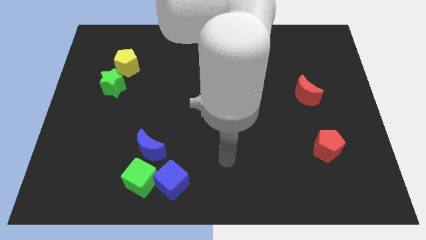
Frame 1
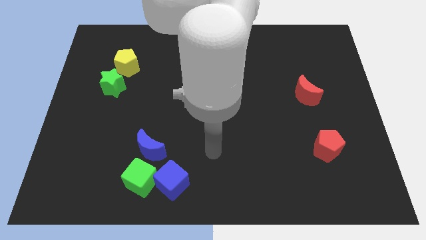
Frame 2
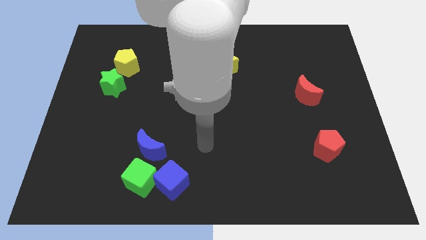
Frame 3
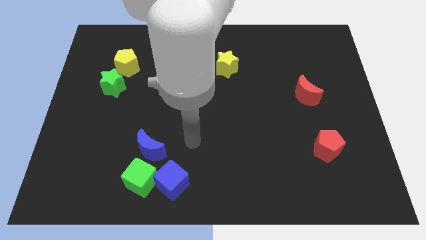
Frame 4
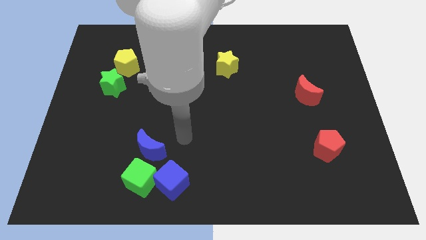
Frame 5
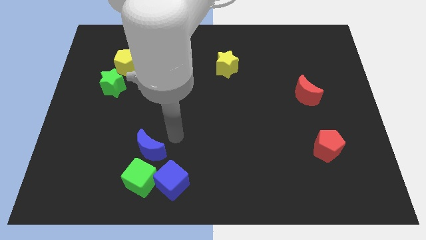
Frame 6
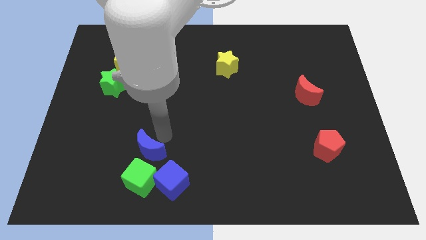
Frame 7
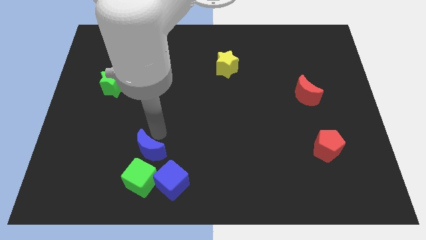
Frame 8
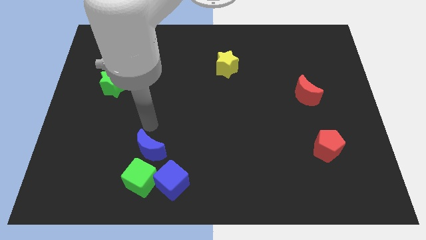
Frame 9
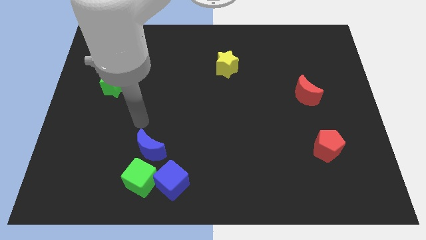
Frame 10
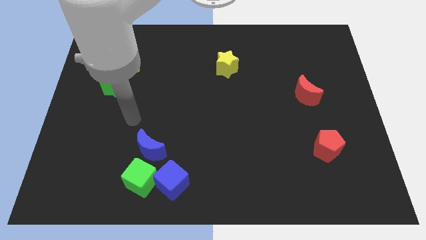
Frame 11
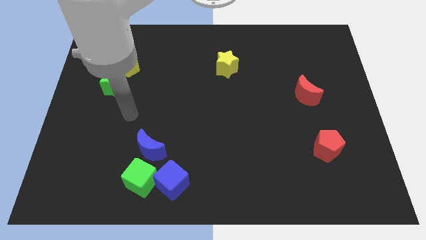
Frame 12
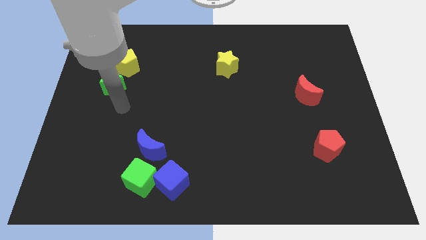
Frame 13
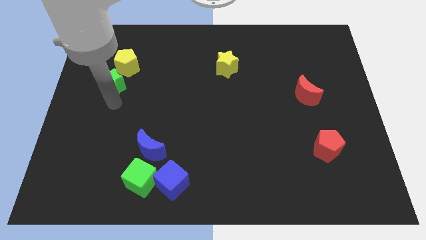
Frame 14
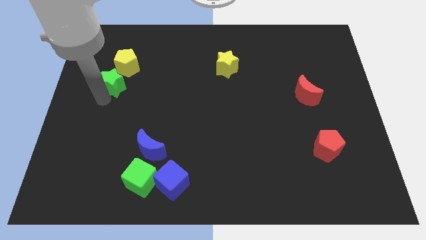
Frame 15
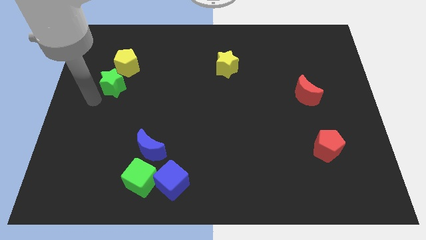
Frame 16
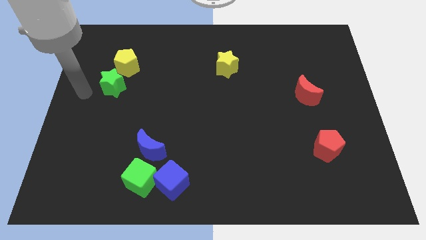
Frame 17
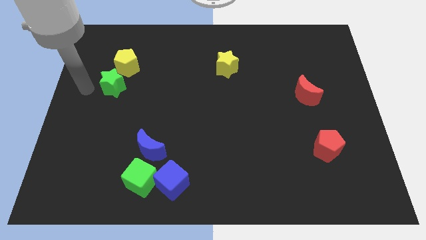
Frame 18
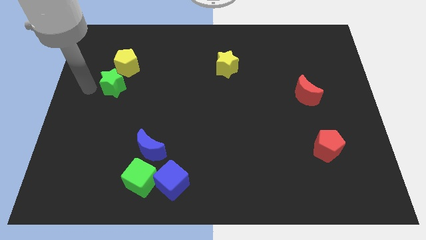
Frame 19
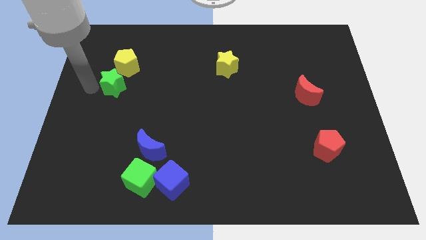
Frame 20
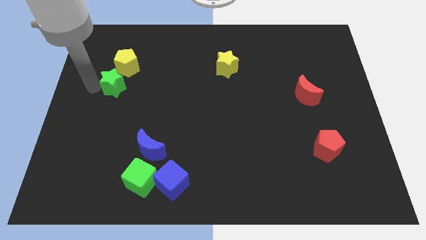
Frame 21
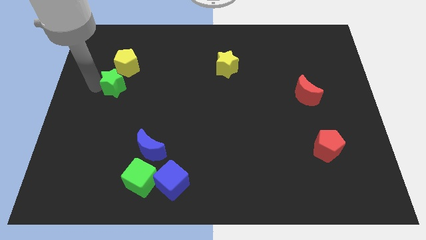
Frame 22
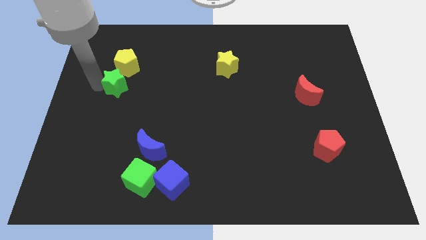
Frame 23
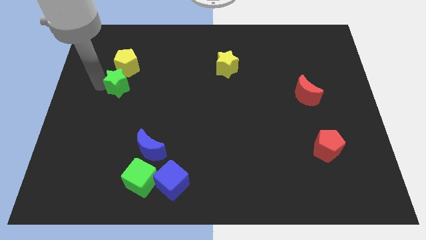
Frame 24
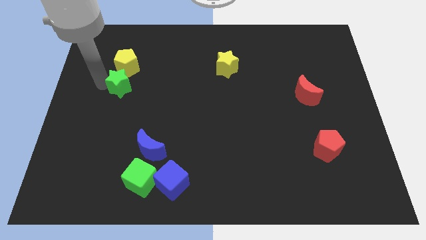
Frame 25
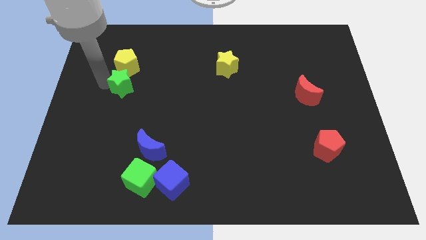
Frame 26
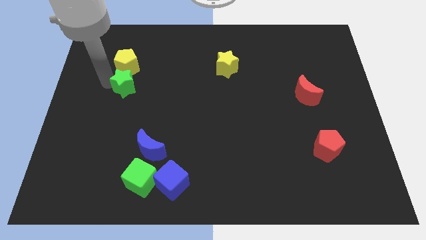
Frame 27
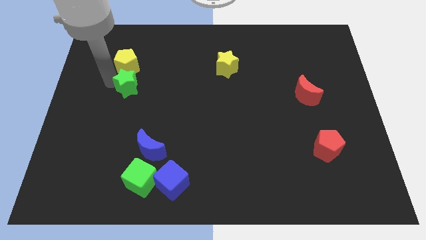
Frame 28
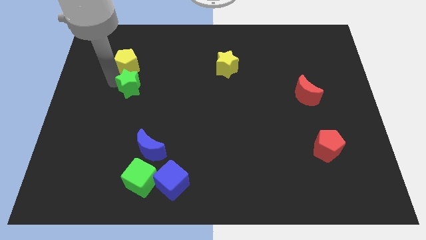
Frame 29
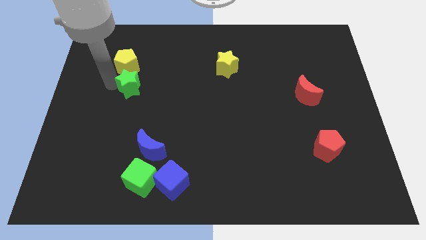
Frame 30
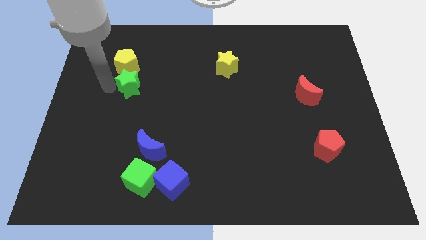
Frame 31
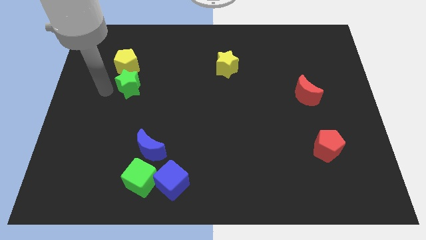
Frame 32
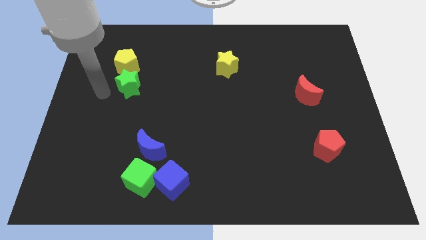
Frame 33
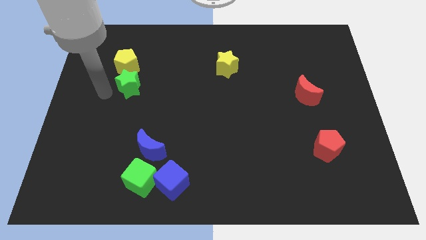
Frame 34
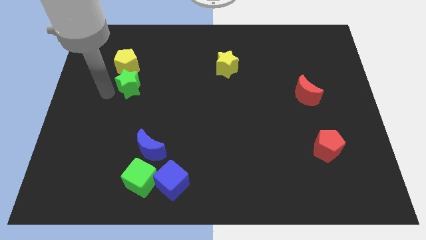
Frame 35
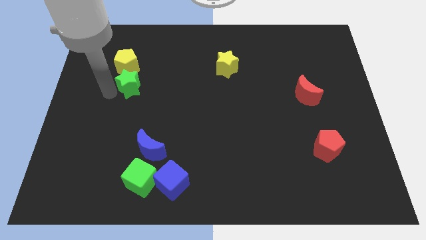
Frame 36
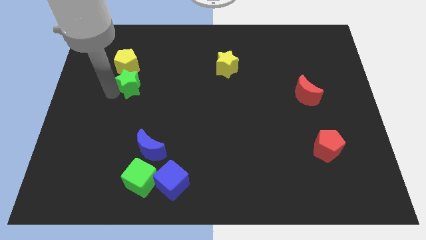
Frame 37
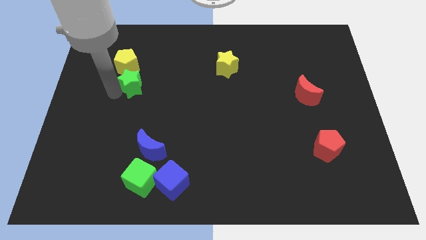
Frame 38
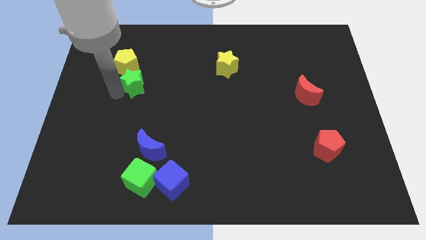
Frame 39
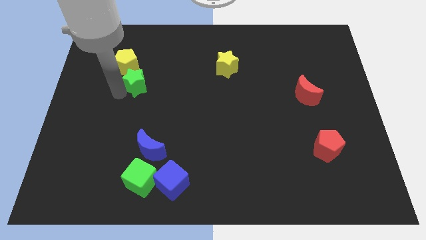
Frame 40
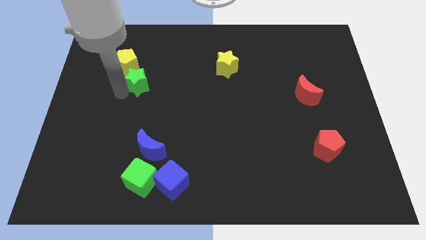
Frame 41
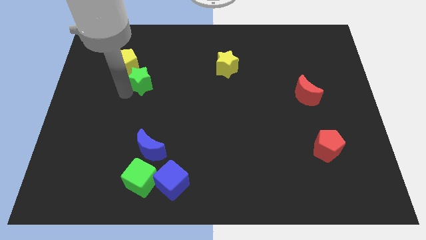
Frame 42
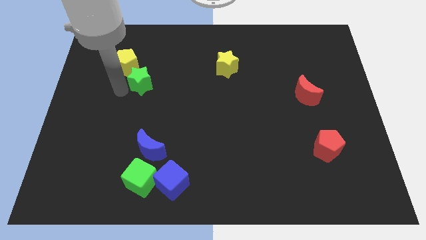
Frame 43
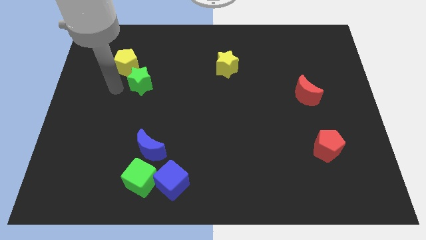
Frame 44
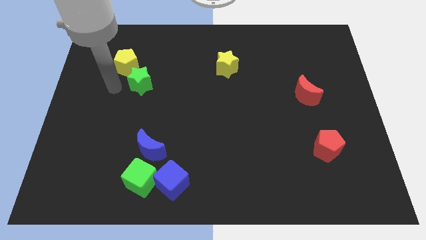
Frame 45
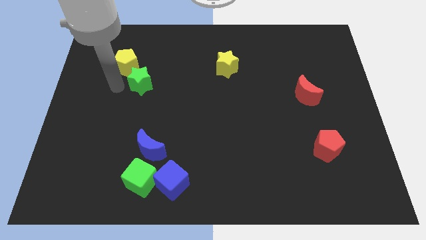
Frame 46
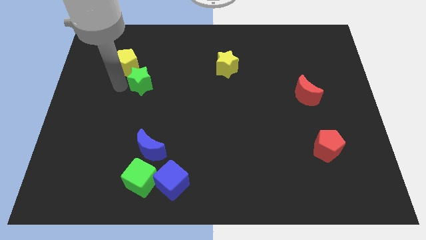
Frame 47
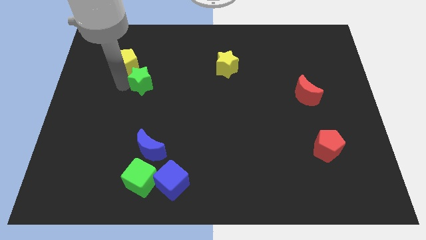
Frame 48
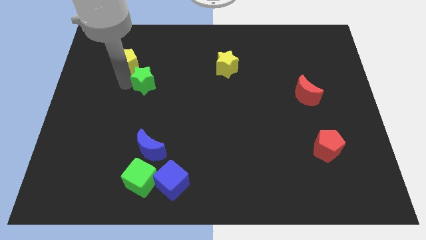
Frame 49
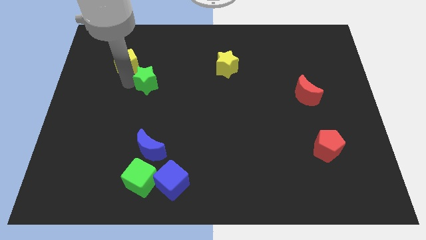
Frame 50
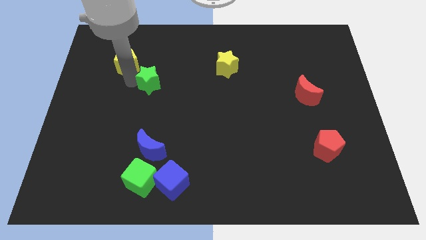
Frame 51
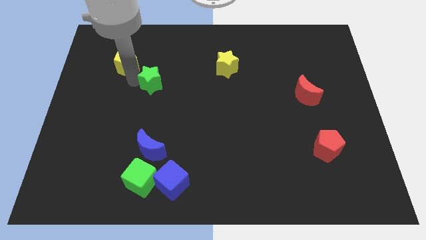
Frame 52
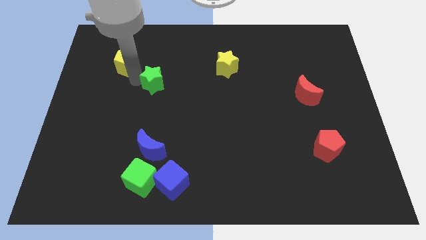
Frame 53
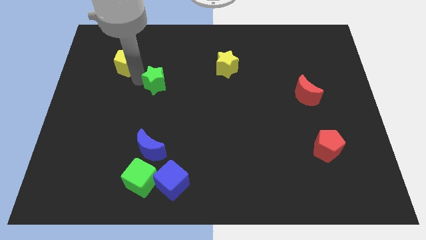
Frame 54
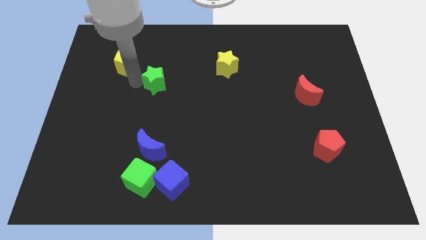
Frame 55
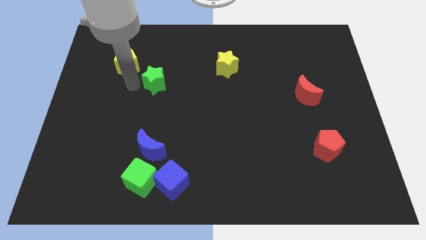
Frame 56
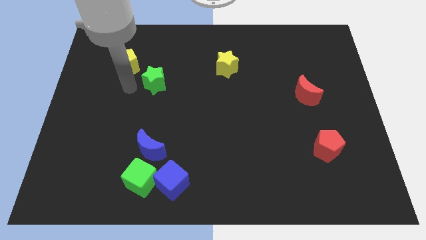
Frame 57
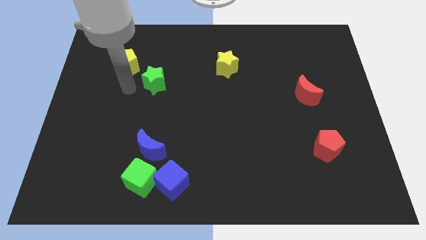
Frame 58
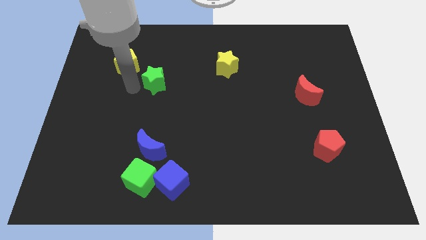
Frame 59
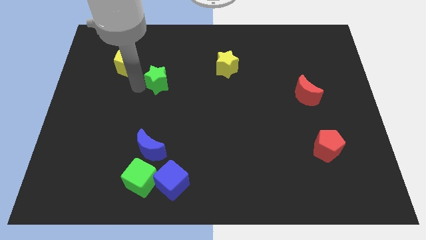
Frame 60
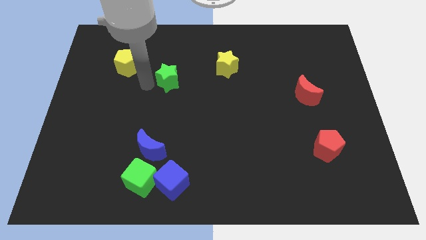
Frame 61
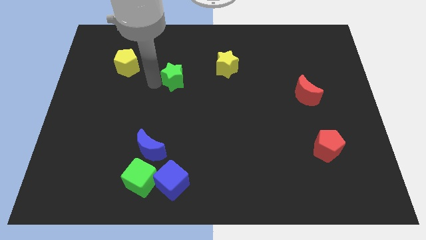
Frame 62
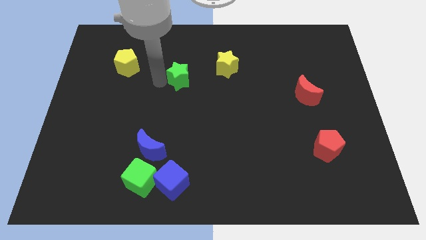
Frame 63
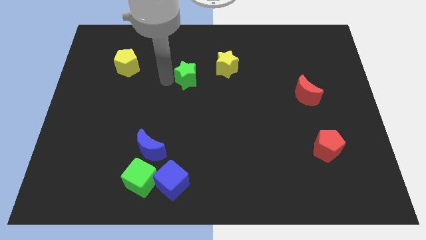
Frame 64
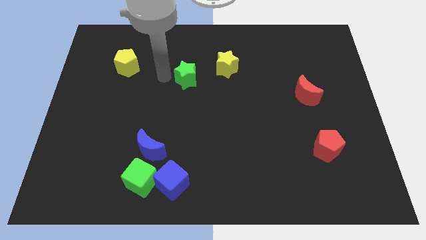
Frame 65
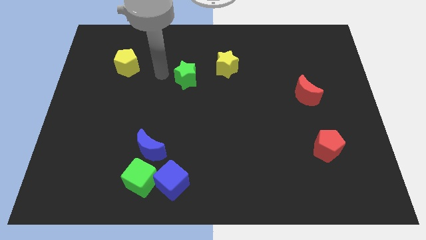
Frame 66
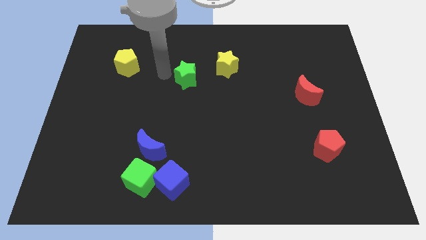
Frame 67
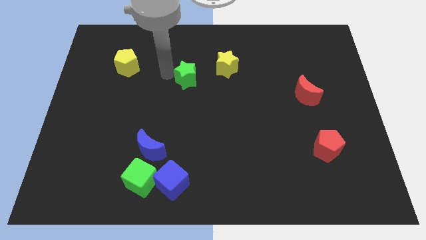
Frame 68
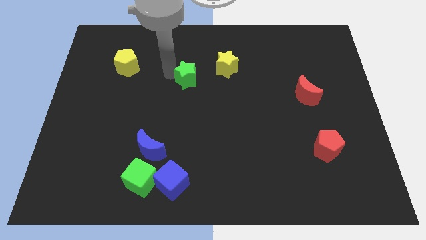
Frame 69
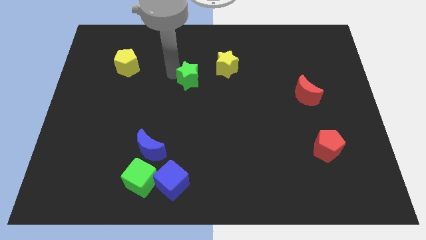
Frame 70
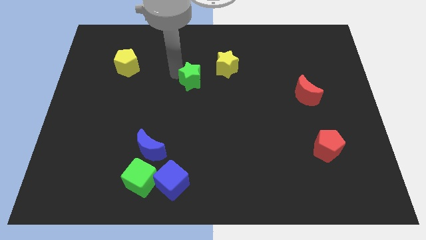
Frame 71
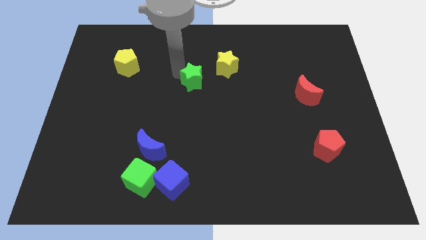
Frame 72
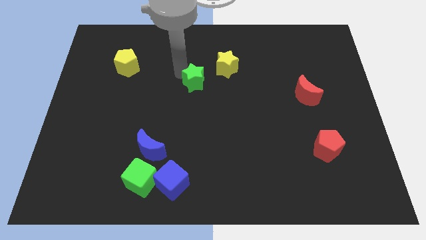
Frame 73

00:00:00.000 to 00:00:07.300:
push the green star right

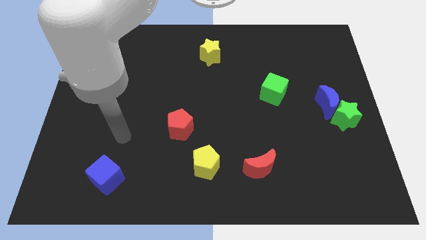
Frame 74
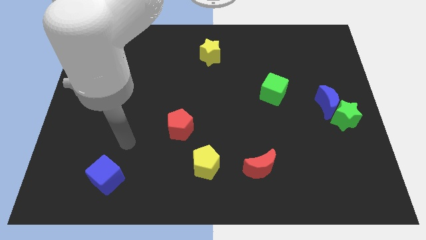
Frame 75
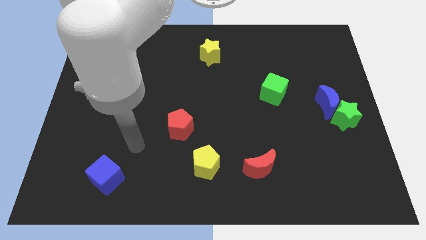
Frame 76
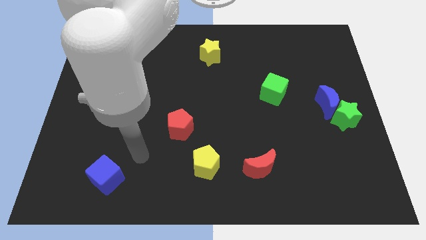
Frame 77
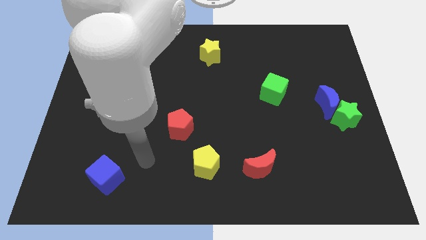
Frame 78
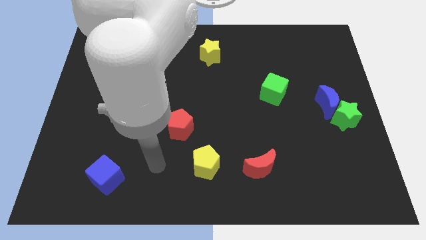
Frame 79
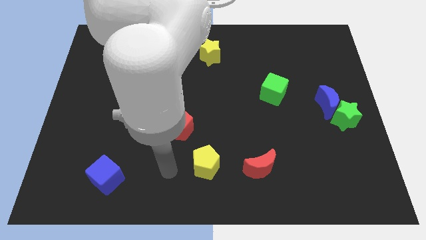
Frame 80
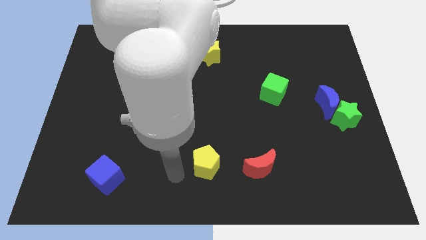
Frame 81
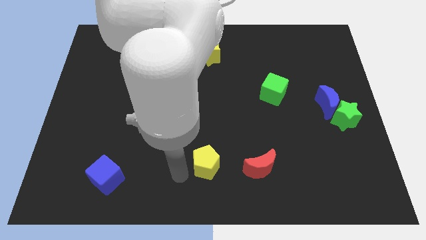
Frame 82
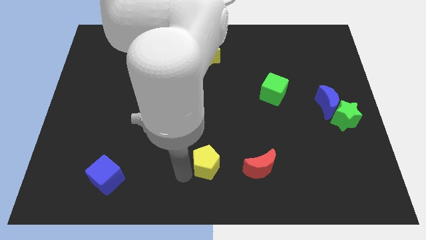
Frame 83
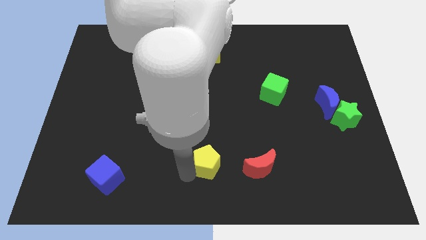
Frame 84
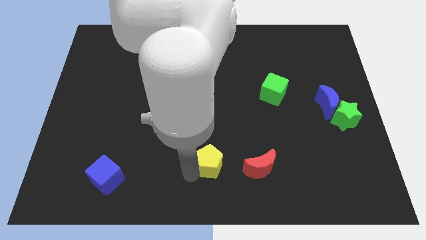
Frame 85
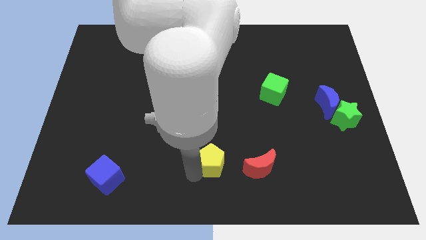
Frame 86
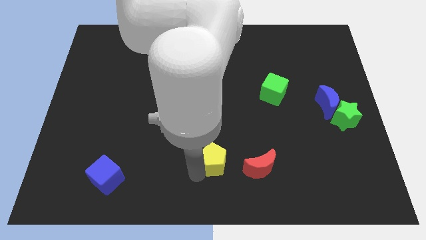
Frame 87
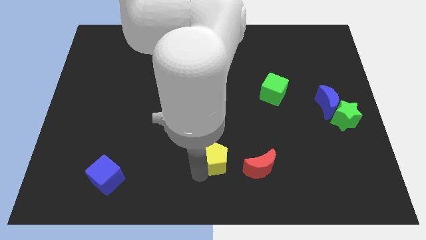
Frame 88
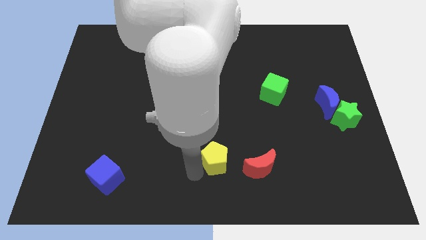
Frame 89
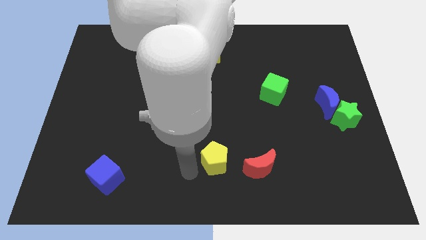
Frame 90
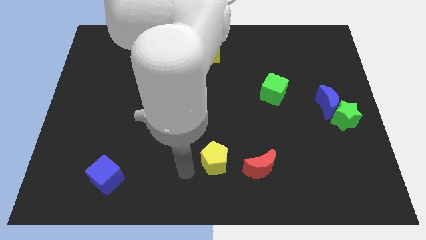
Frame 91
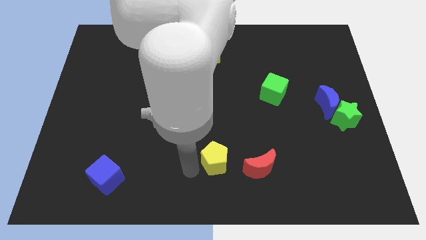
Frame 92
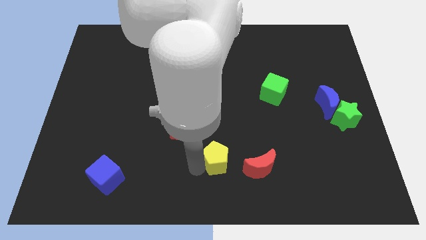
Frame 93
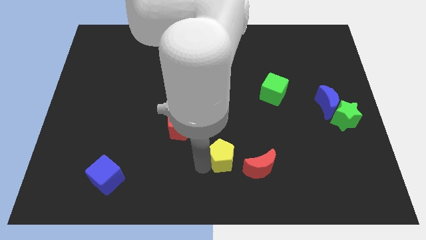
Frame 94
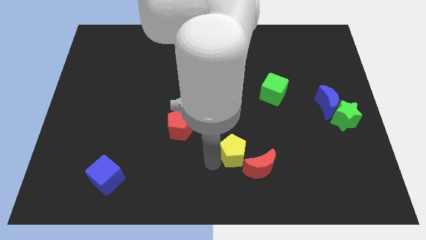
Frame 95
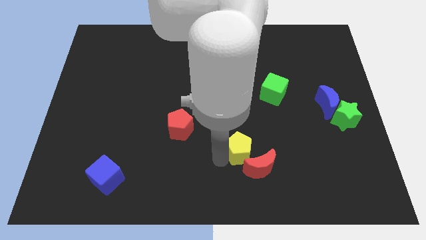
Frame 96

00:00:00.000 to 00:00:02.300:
push the yellow pentagon right a little bit
